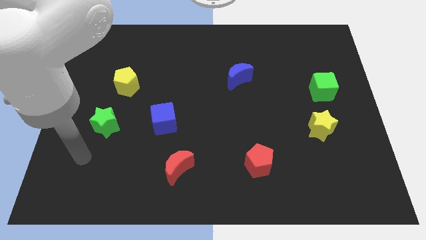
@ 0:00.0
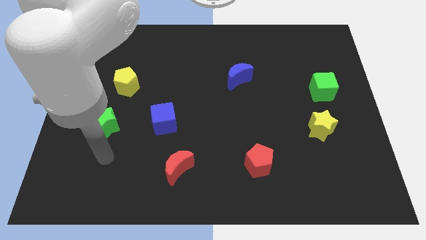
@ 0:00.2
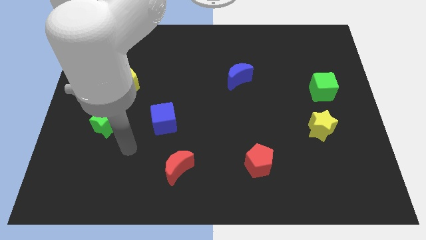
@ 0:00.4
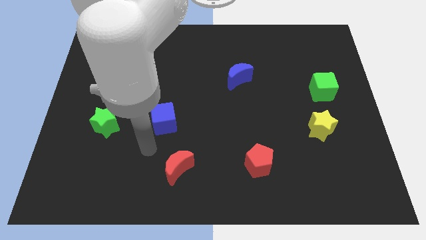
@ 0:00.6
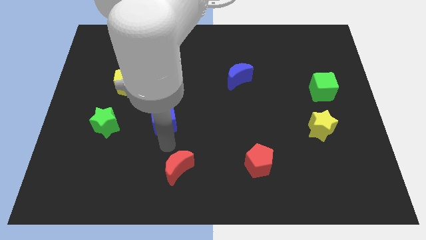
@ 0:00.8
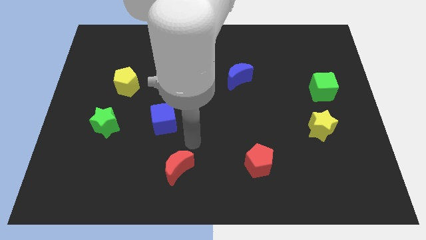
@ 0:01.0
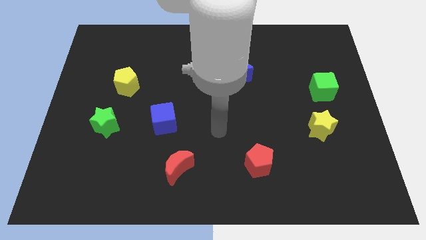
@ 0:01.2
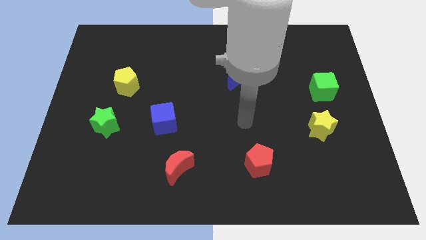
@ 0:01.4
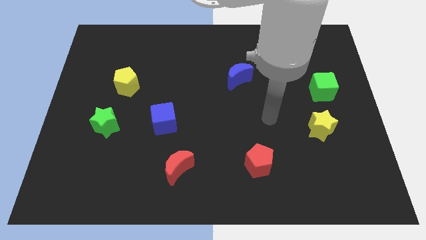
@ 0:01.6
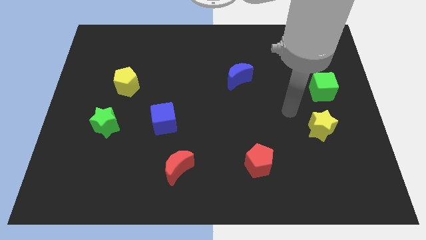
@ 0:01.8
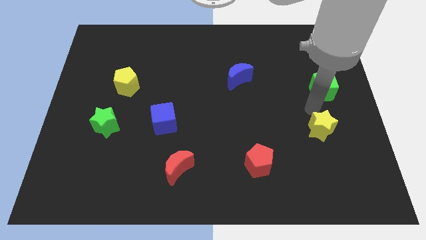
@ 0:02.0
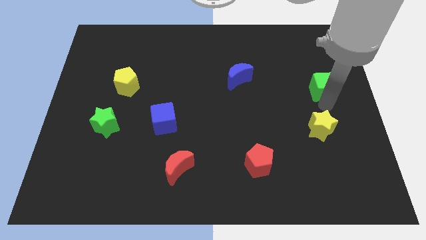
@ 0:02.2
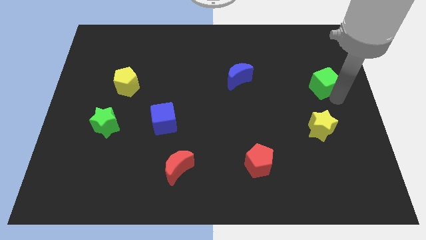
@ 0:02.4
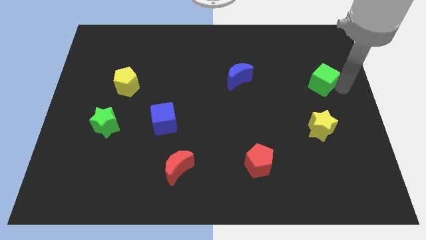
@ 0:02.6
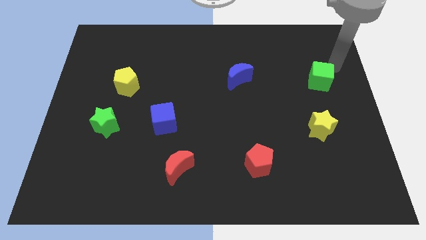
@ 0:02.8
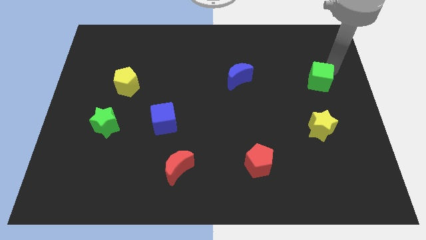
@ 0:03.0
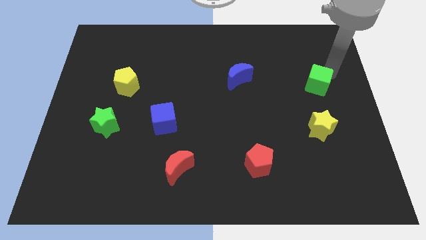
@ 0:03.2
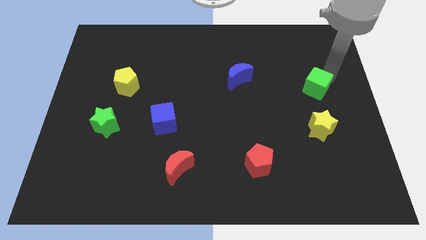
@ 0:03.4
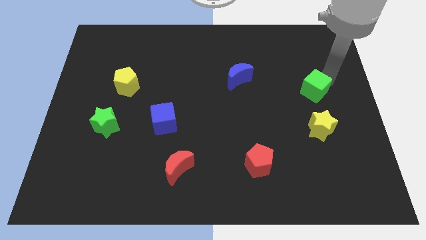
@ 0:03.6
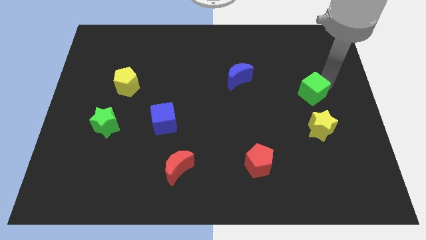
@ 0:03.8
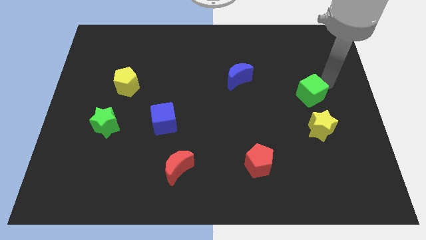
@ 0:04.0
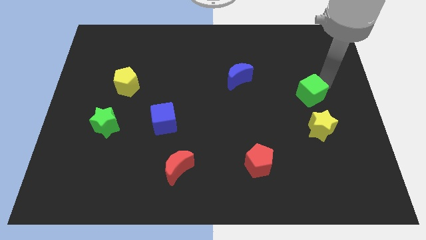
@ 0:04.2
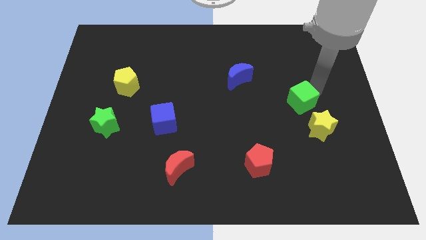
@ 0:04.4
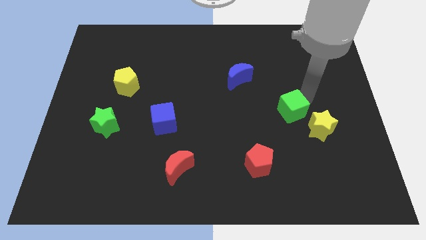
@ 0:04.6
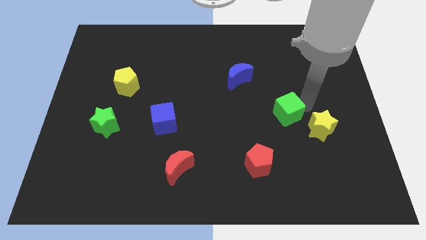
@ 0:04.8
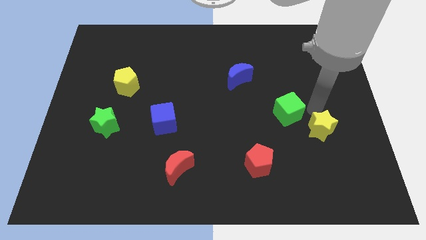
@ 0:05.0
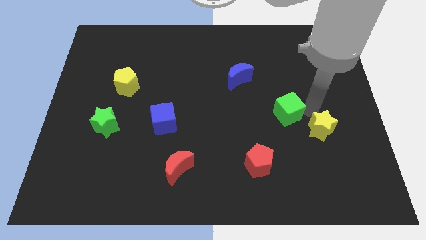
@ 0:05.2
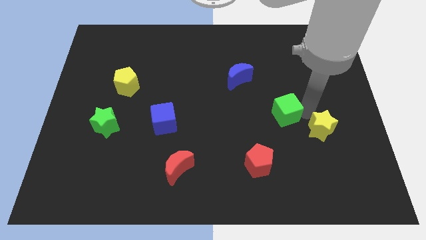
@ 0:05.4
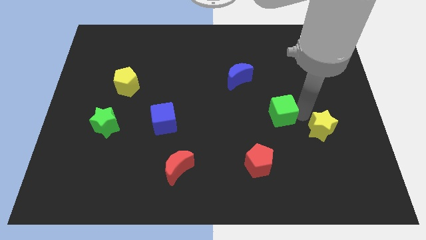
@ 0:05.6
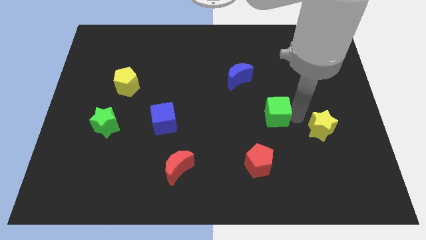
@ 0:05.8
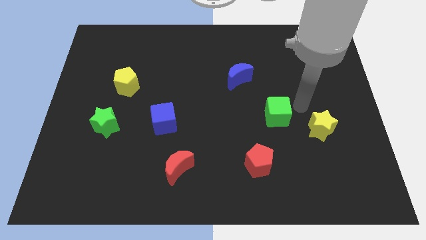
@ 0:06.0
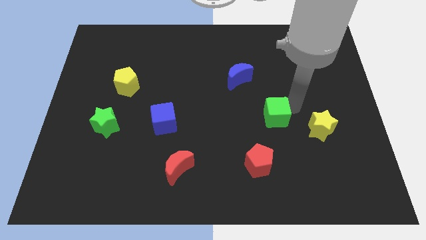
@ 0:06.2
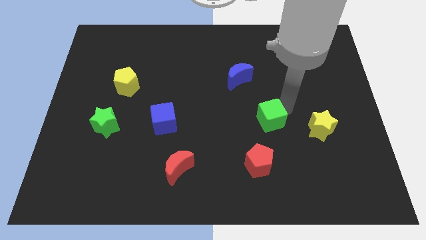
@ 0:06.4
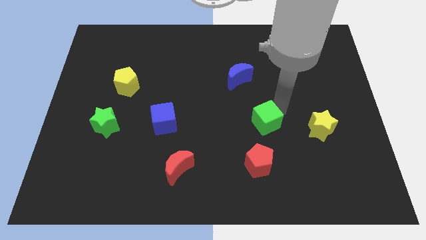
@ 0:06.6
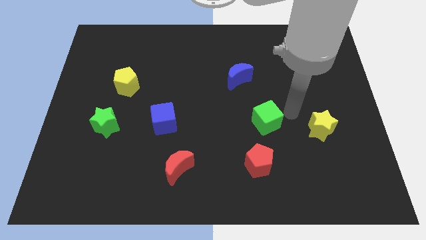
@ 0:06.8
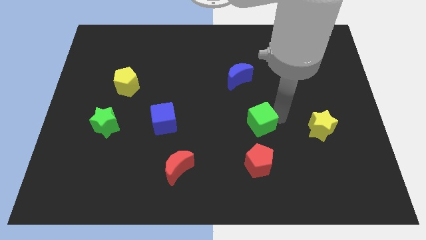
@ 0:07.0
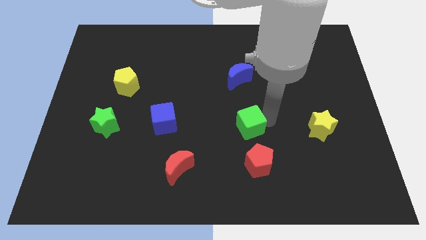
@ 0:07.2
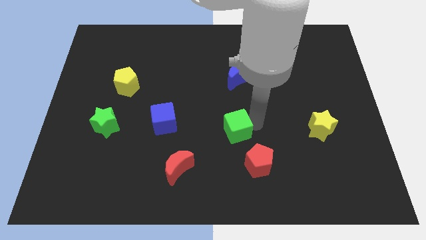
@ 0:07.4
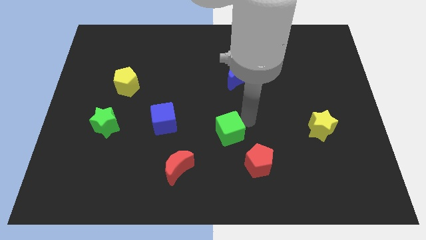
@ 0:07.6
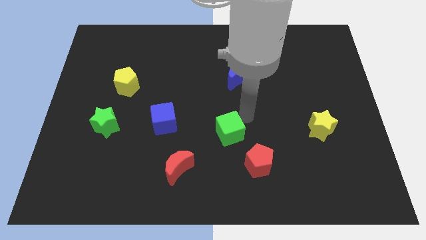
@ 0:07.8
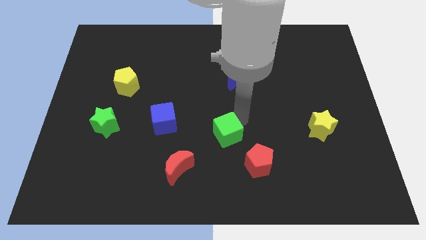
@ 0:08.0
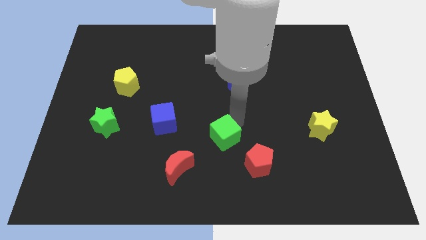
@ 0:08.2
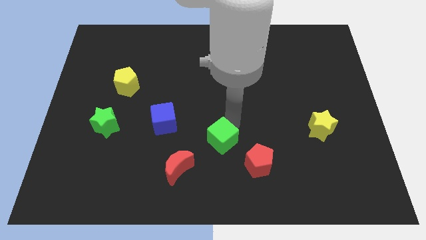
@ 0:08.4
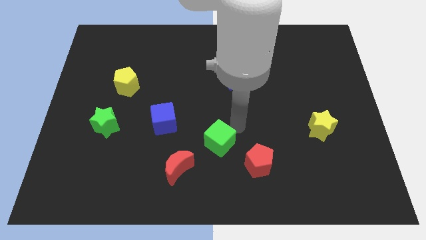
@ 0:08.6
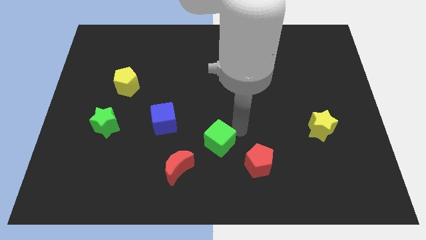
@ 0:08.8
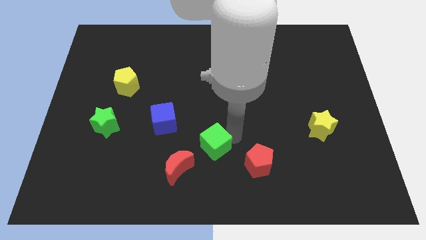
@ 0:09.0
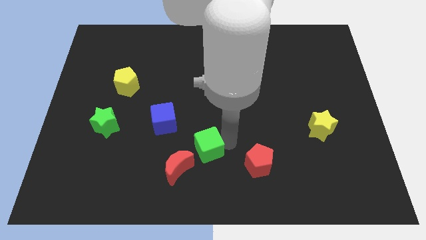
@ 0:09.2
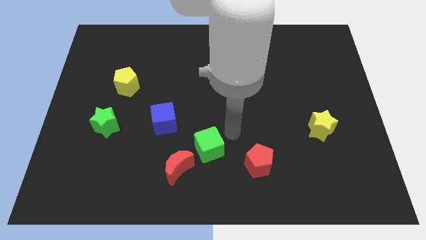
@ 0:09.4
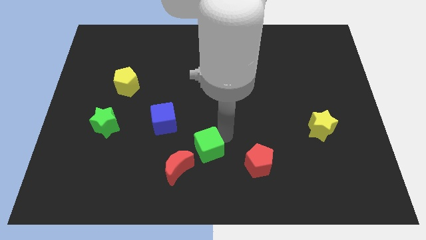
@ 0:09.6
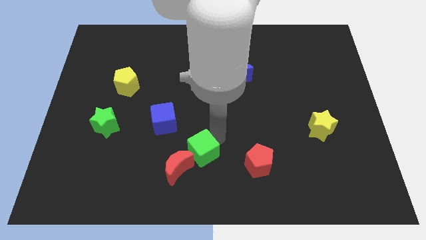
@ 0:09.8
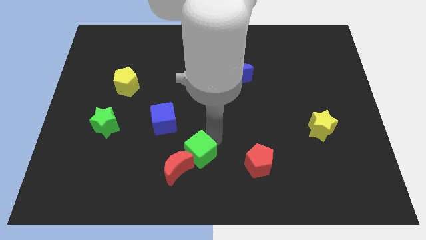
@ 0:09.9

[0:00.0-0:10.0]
push the green cube next to the red moon

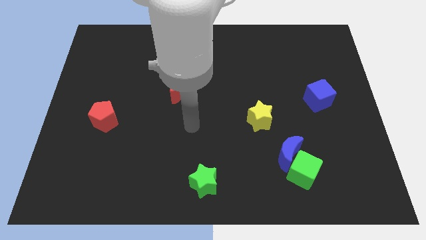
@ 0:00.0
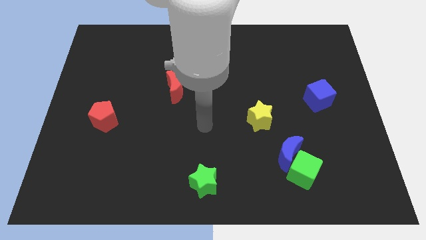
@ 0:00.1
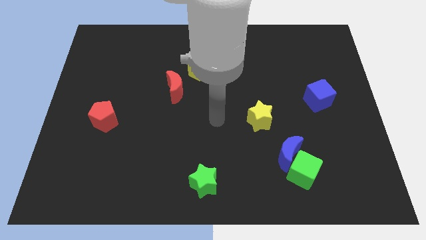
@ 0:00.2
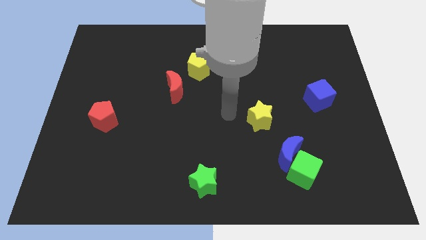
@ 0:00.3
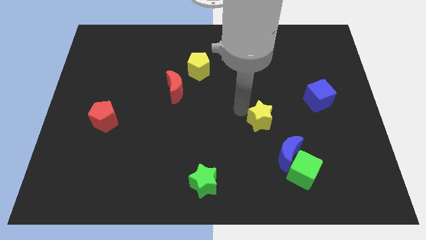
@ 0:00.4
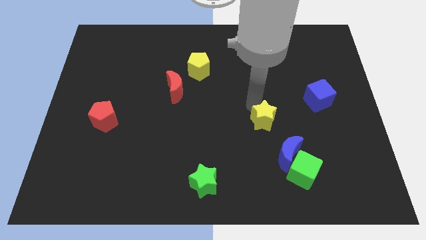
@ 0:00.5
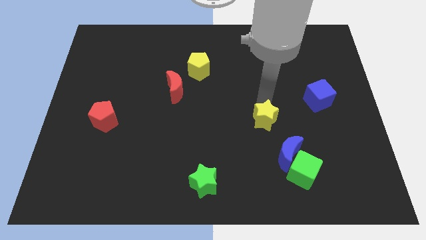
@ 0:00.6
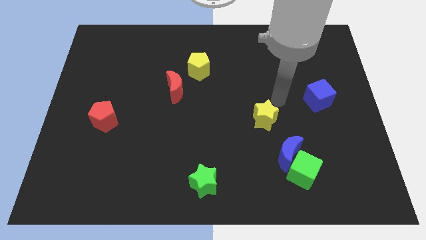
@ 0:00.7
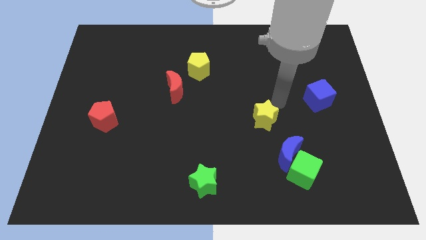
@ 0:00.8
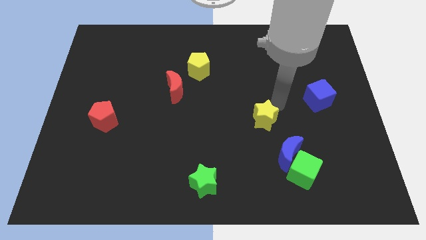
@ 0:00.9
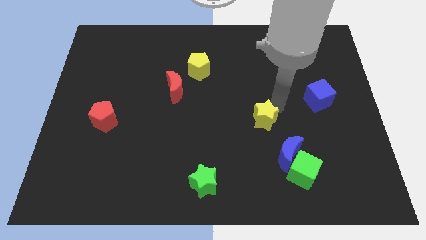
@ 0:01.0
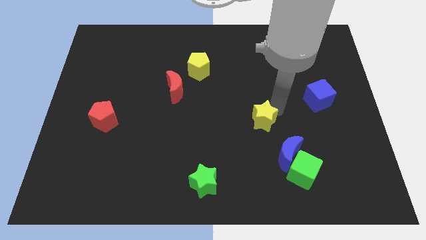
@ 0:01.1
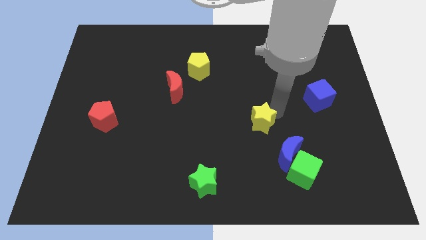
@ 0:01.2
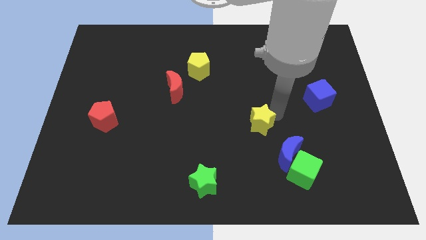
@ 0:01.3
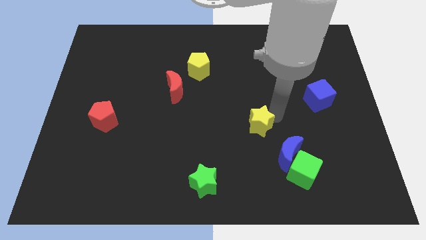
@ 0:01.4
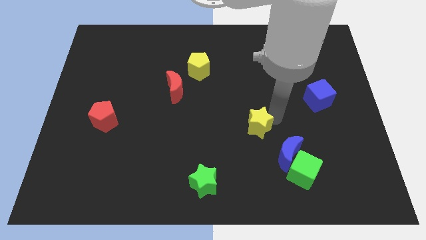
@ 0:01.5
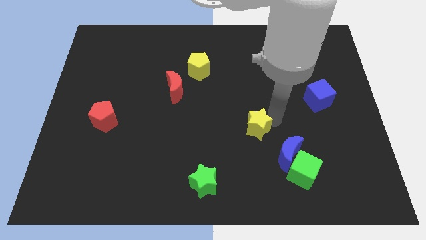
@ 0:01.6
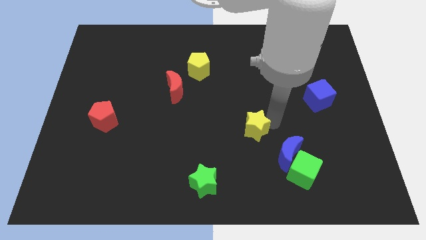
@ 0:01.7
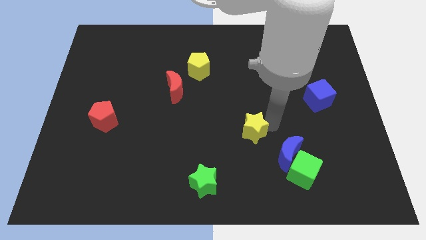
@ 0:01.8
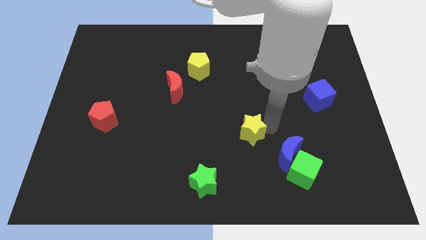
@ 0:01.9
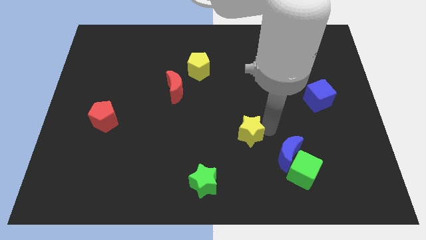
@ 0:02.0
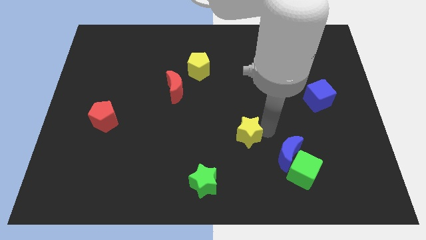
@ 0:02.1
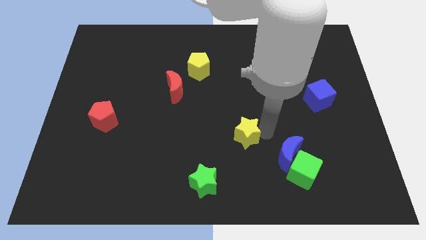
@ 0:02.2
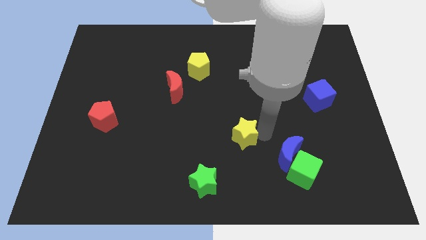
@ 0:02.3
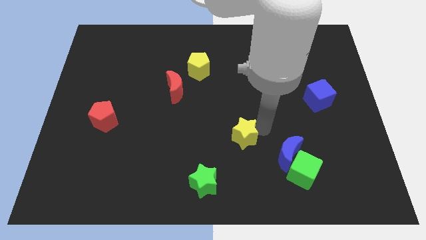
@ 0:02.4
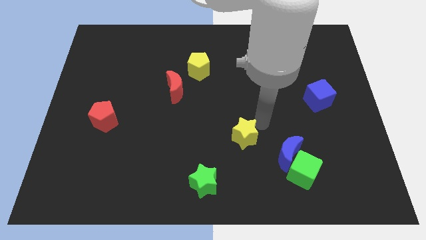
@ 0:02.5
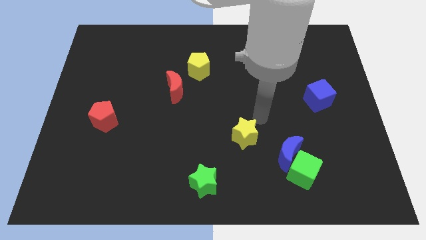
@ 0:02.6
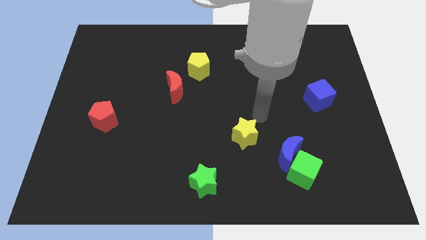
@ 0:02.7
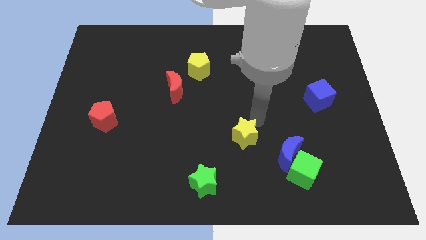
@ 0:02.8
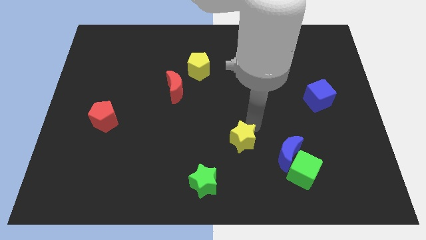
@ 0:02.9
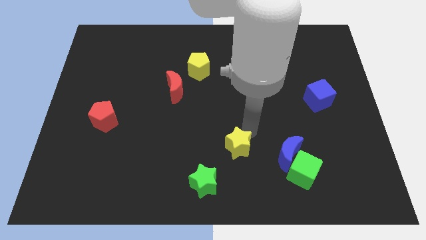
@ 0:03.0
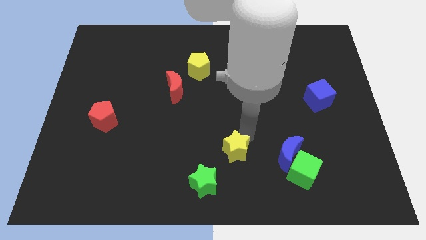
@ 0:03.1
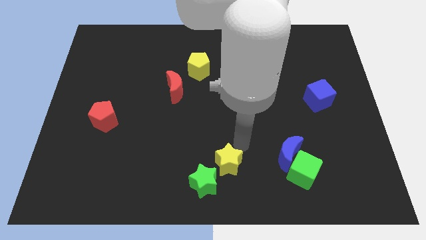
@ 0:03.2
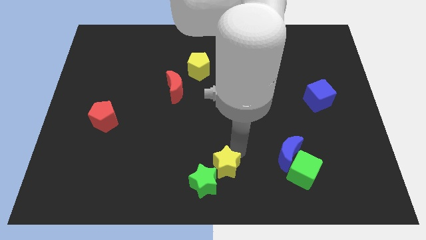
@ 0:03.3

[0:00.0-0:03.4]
put the yellow star to the green star
